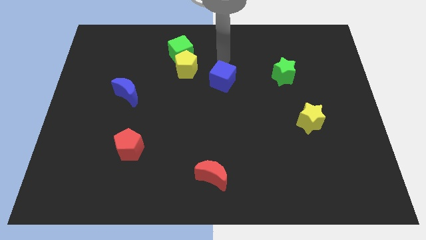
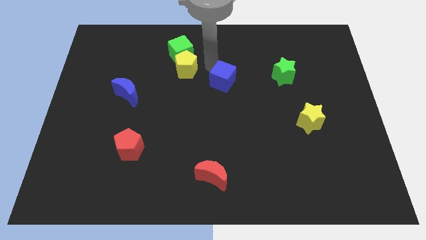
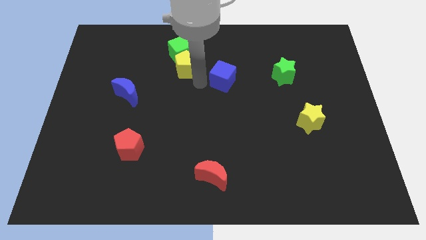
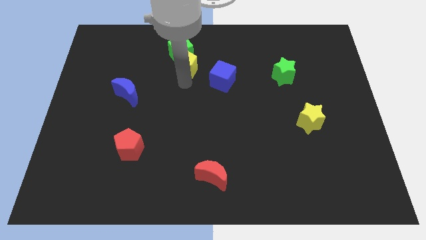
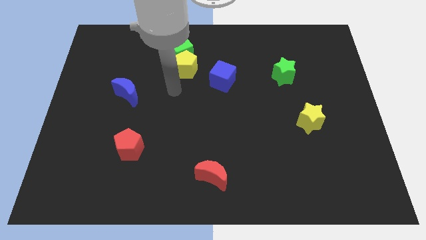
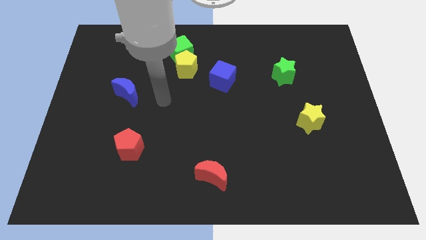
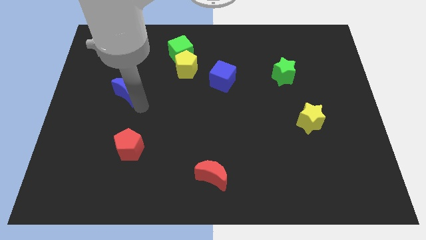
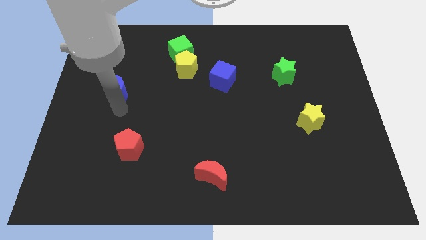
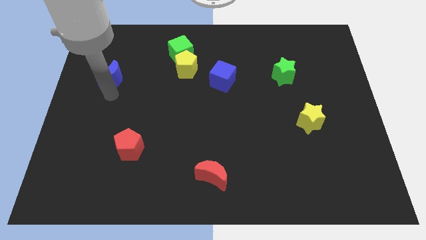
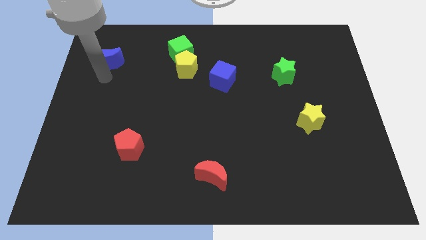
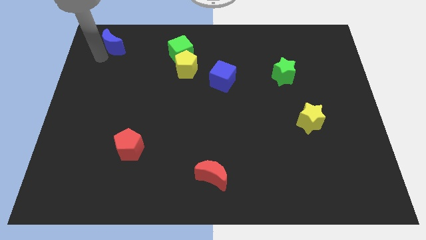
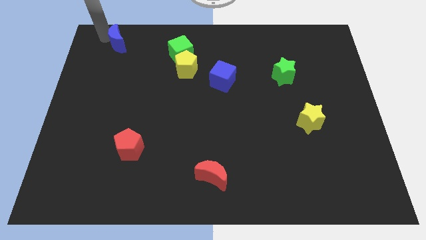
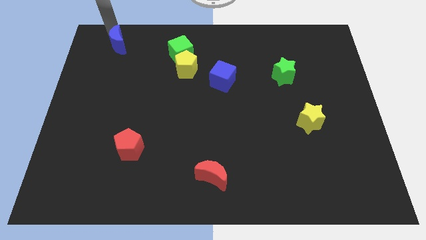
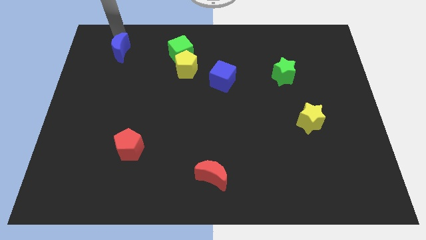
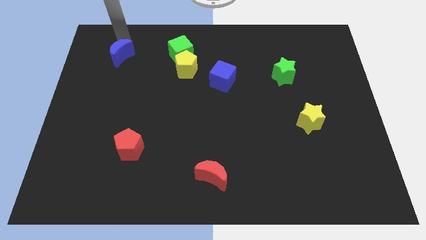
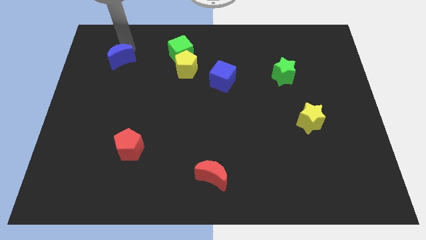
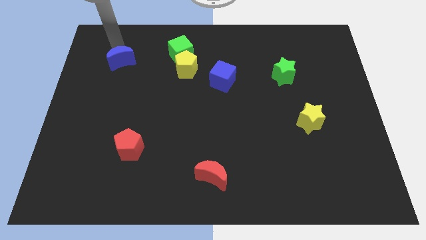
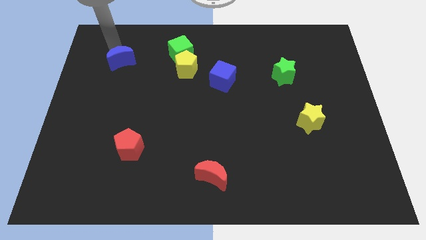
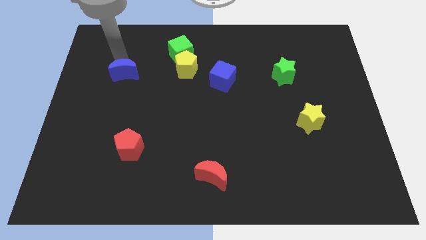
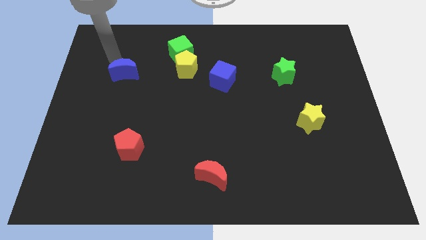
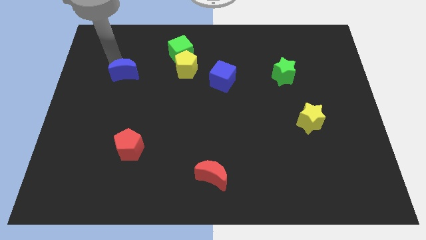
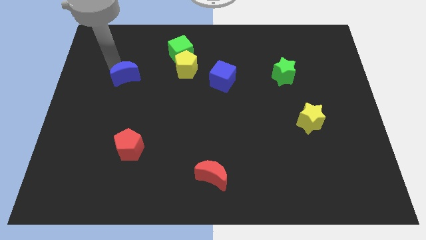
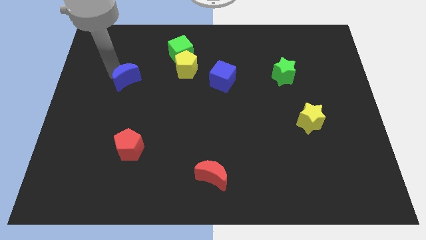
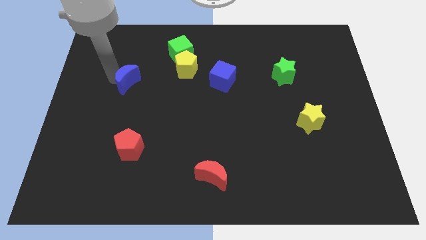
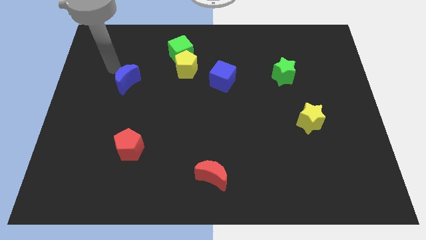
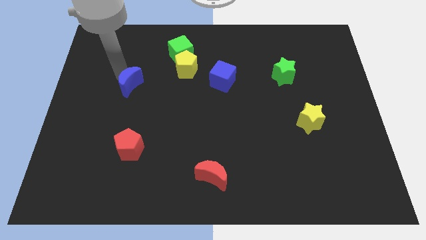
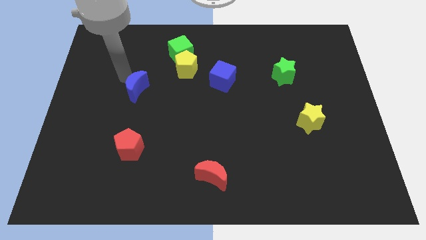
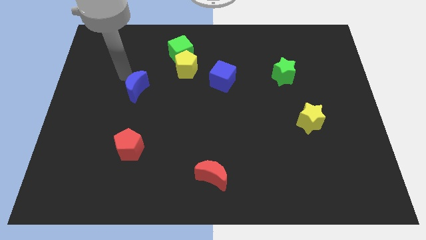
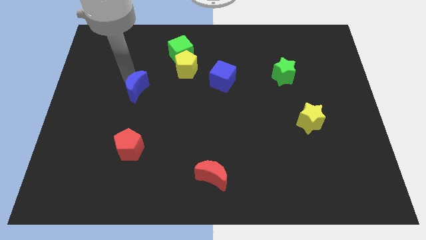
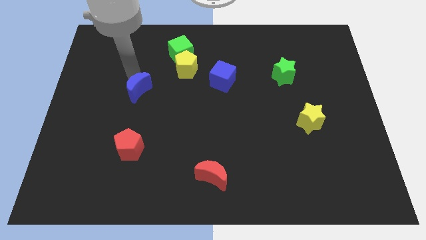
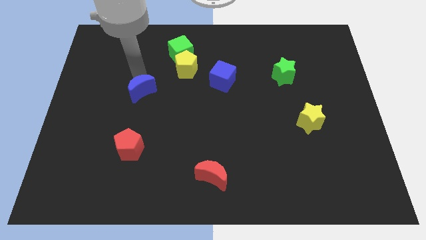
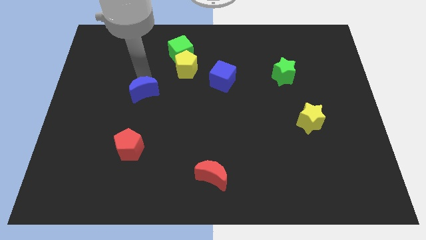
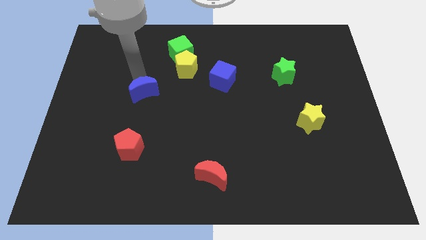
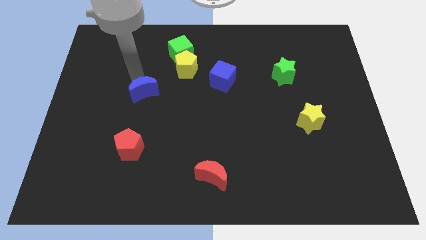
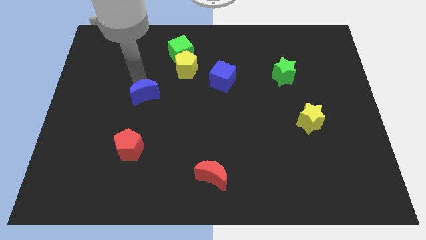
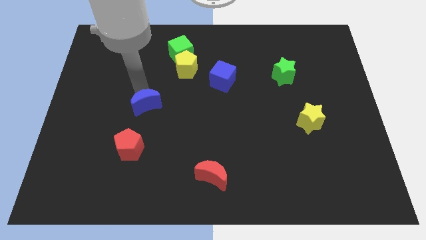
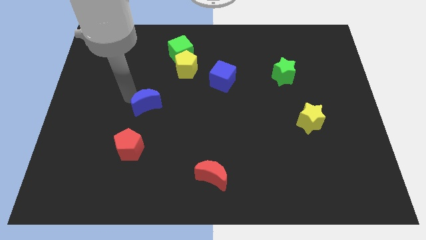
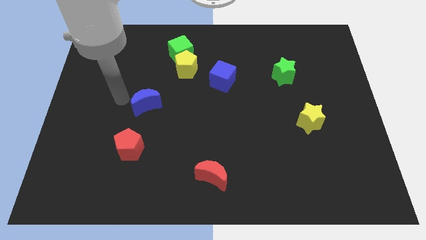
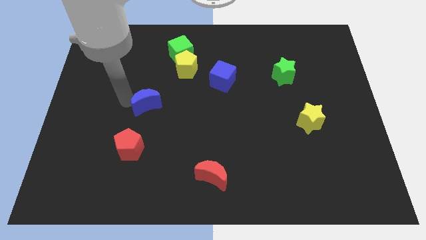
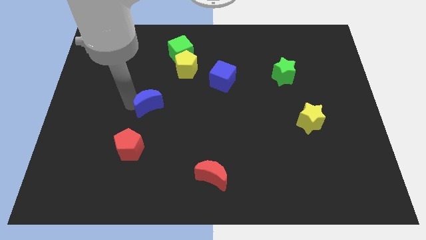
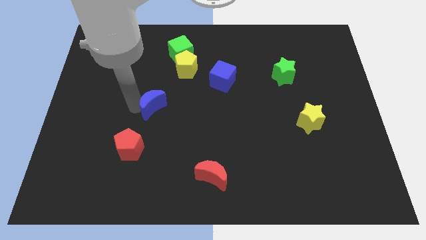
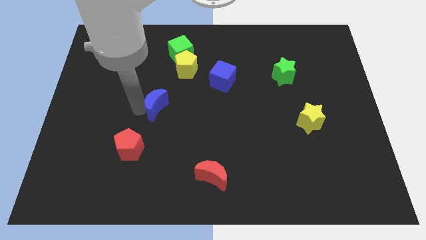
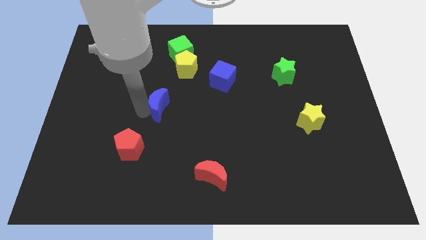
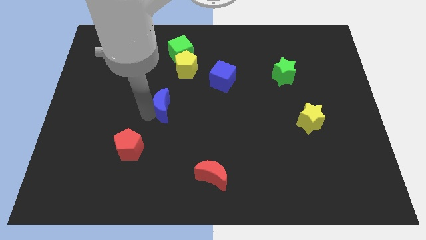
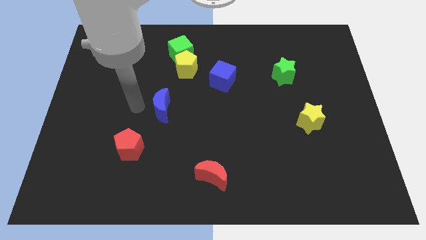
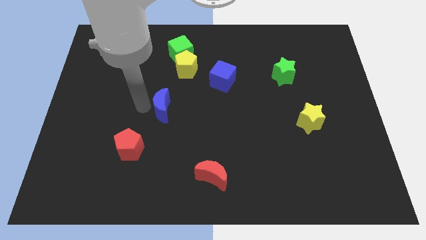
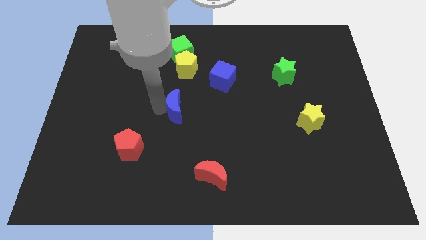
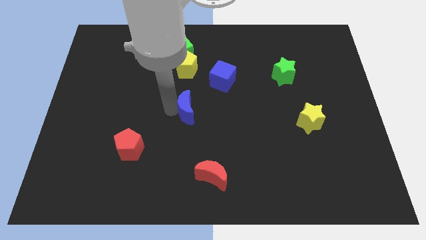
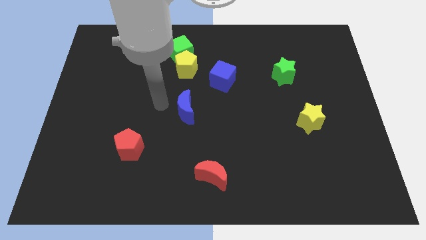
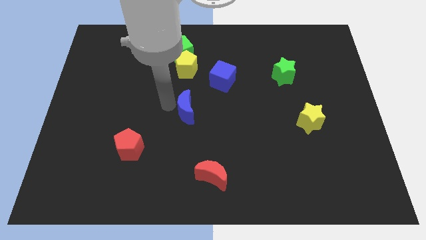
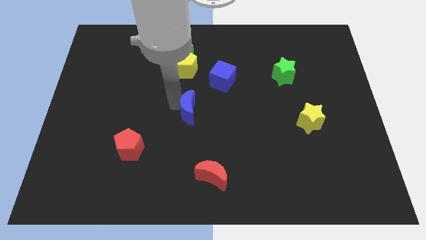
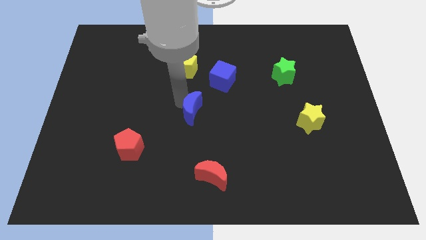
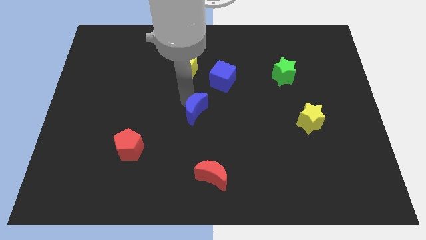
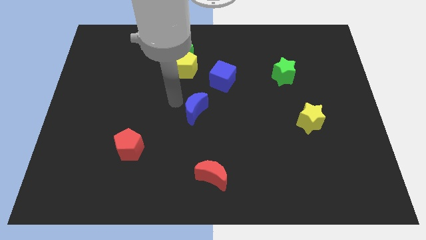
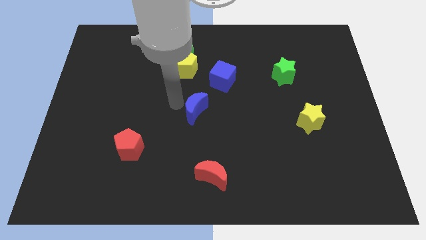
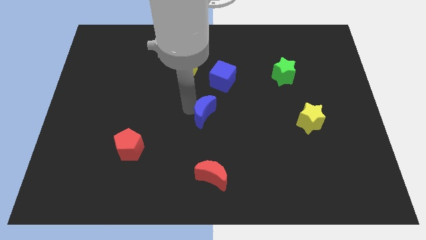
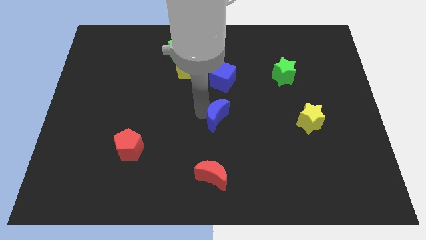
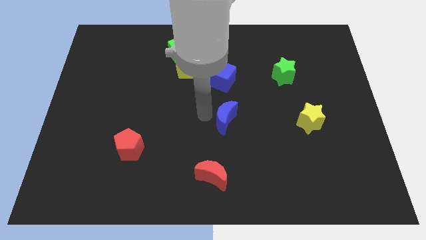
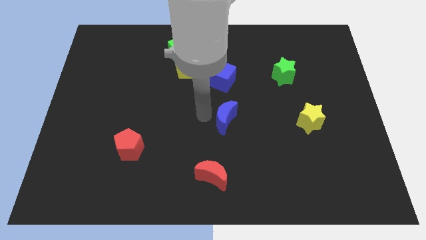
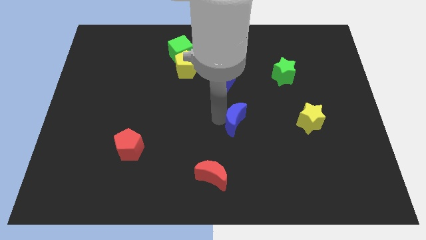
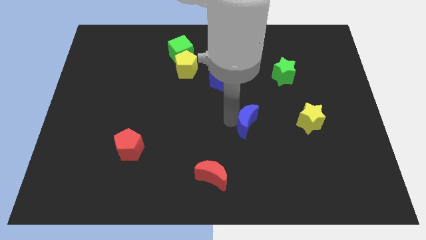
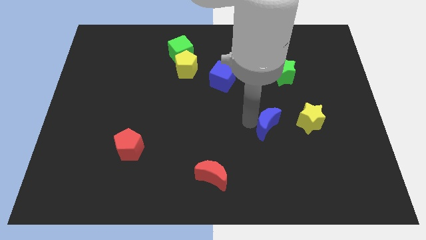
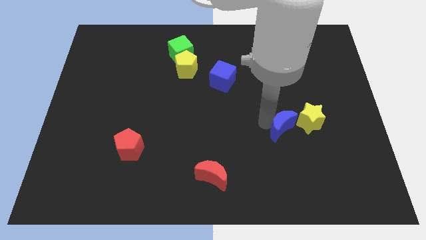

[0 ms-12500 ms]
slide the blue moon to the bottom left of the yellow star

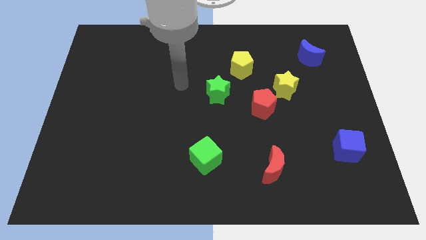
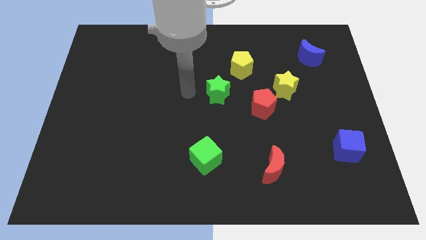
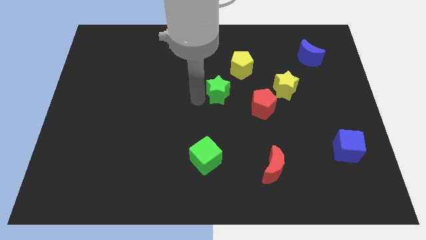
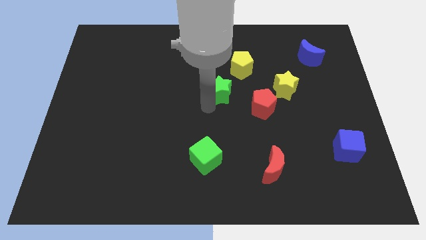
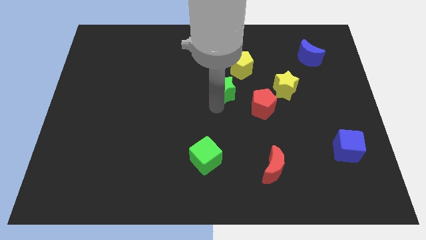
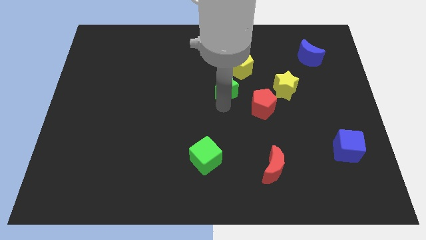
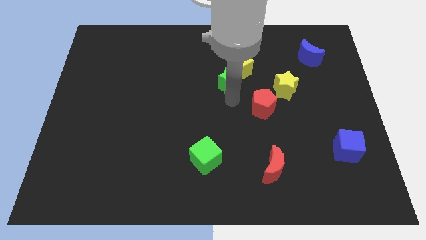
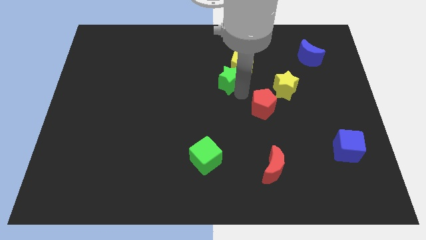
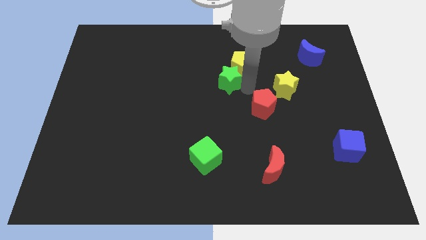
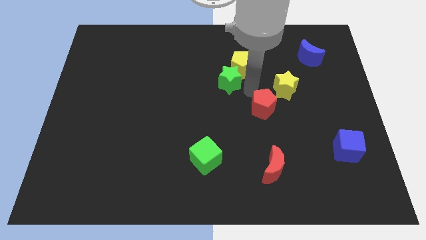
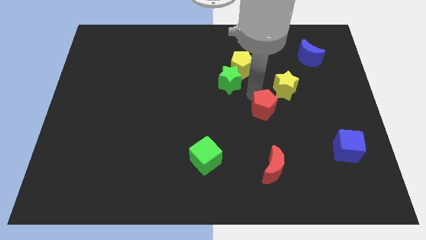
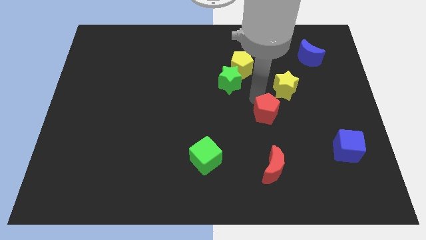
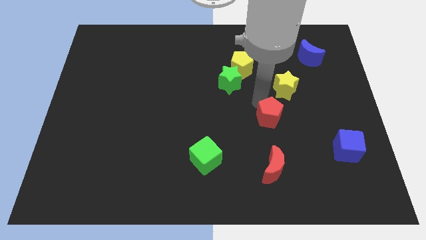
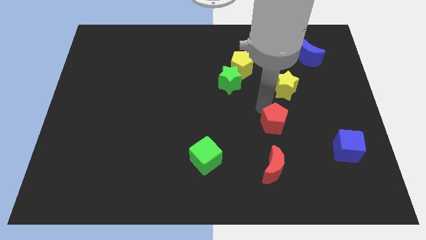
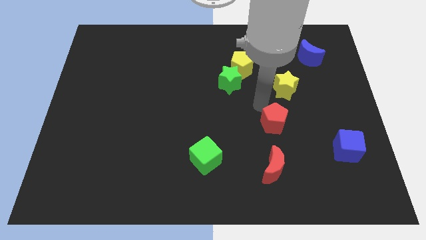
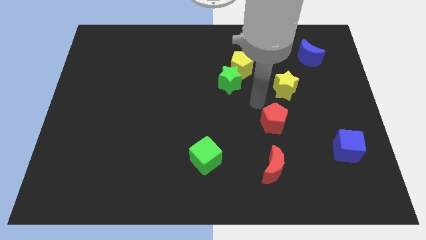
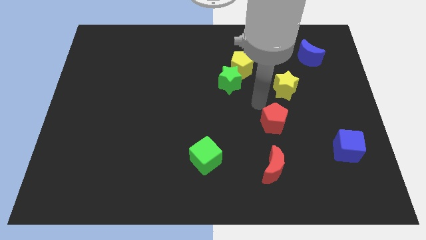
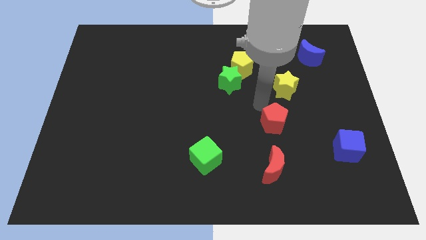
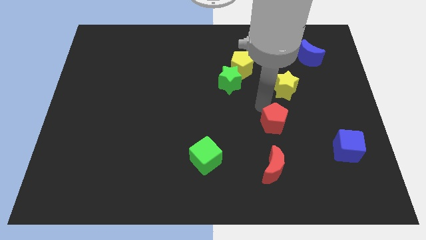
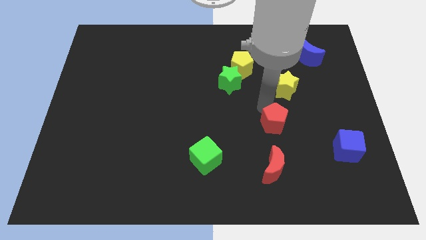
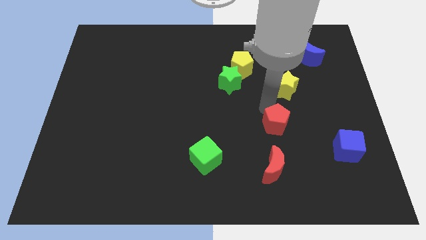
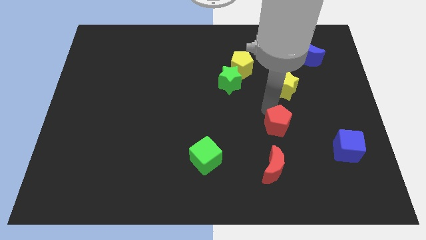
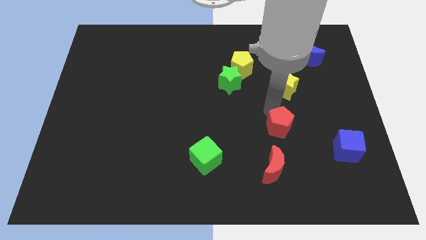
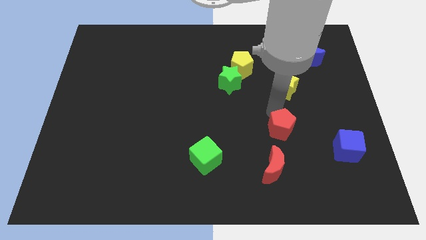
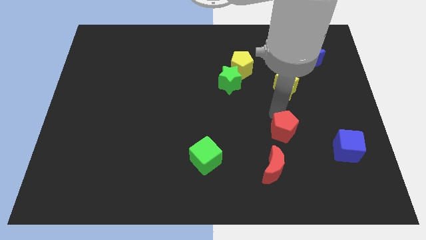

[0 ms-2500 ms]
move the red pentagon to the top right side of the red moon
